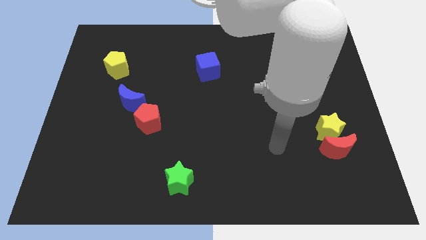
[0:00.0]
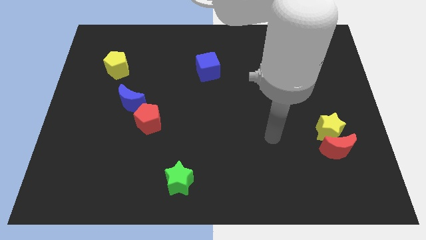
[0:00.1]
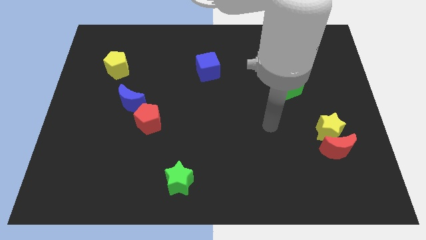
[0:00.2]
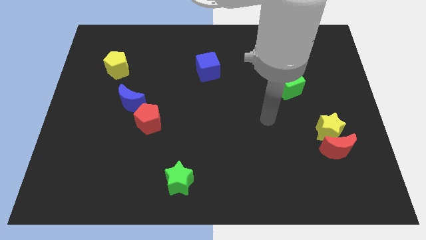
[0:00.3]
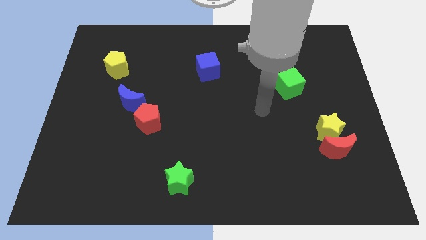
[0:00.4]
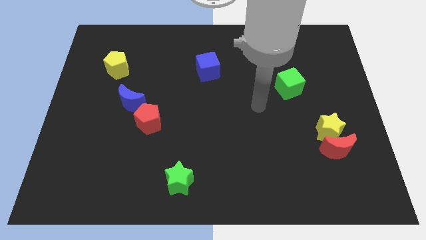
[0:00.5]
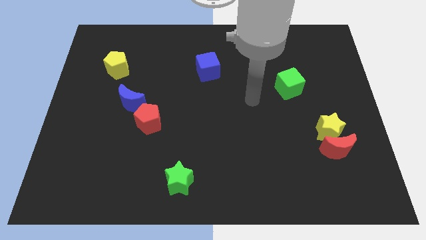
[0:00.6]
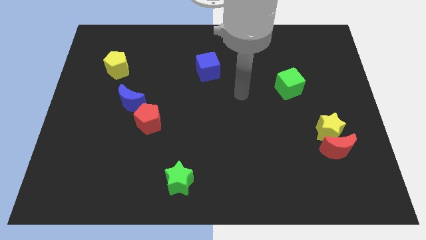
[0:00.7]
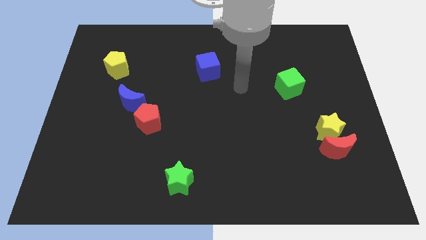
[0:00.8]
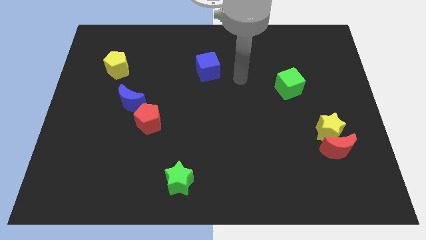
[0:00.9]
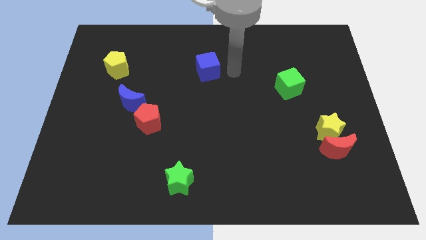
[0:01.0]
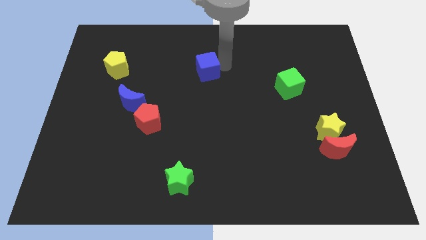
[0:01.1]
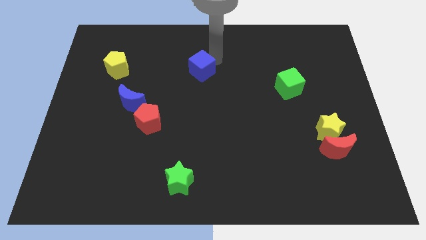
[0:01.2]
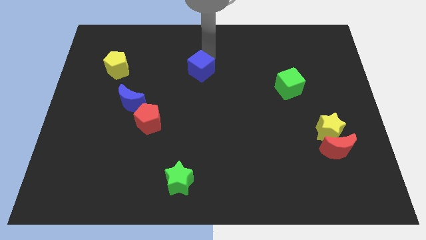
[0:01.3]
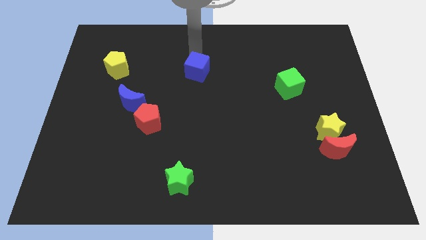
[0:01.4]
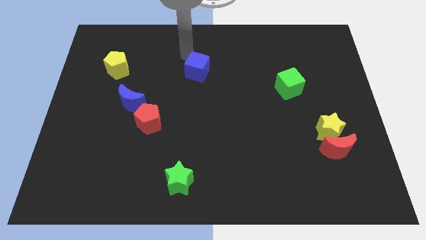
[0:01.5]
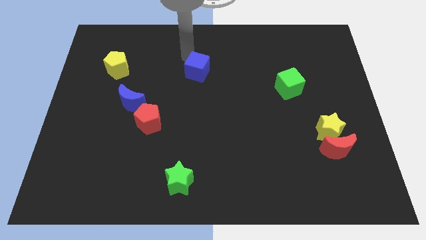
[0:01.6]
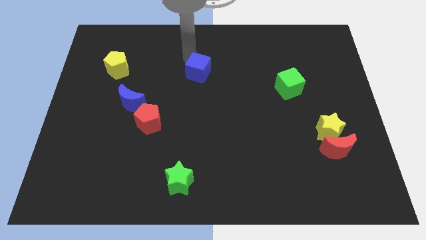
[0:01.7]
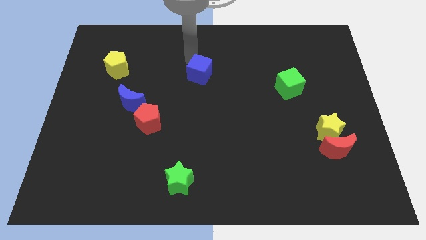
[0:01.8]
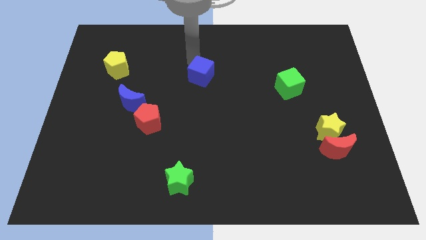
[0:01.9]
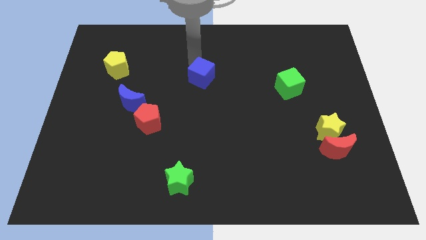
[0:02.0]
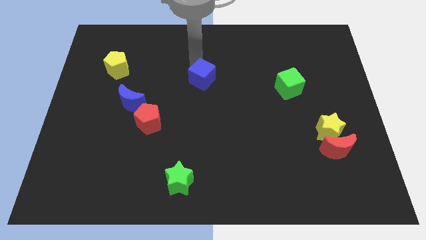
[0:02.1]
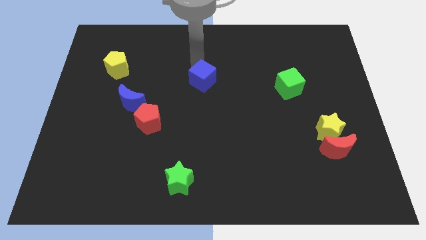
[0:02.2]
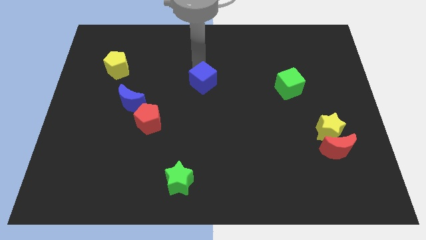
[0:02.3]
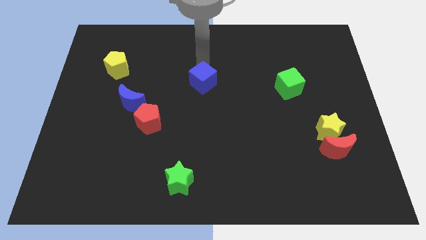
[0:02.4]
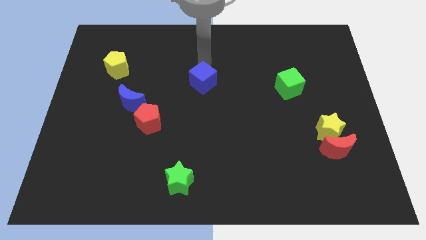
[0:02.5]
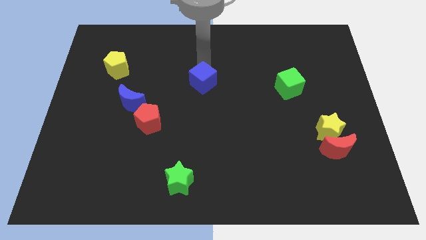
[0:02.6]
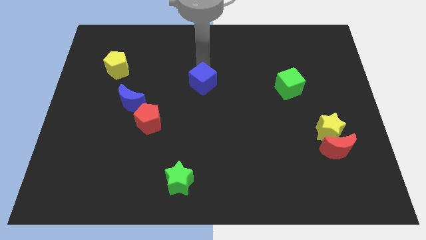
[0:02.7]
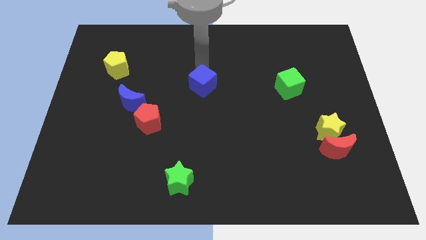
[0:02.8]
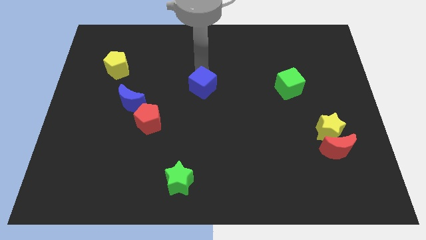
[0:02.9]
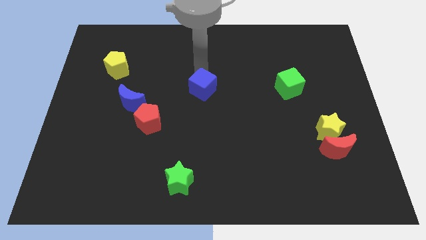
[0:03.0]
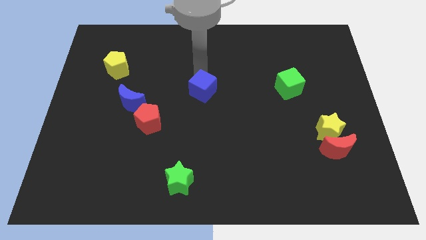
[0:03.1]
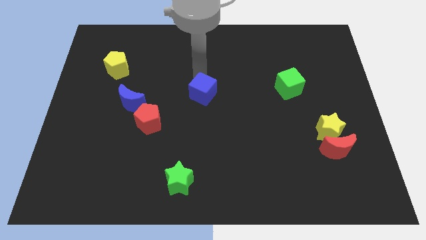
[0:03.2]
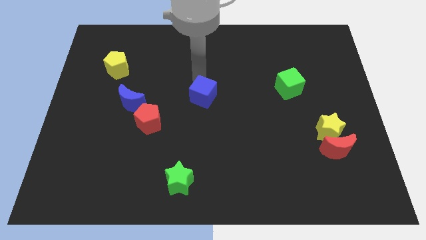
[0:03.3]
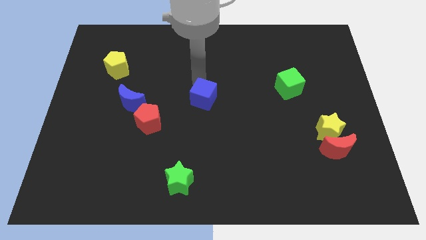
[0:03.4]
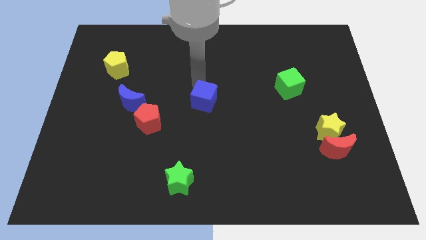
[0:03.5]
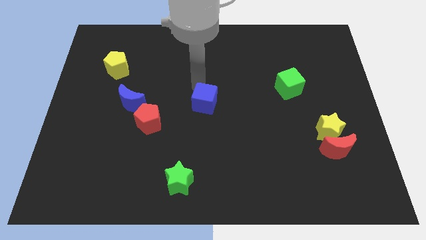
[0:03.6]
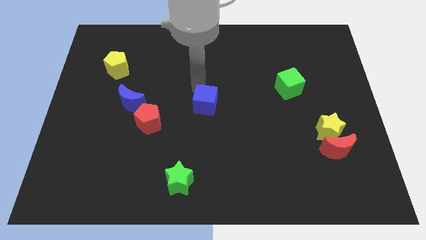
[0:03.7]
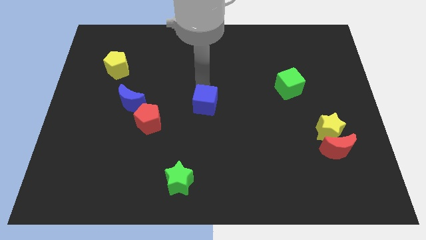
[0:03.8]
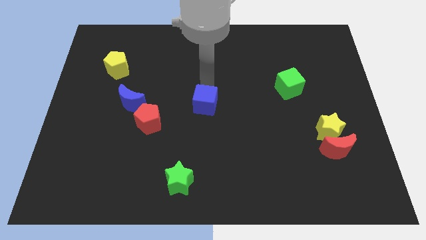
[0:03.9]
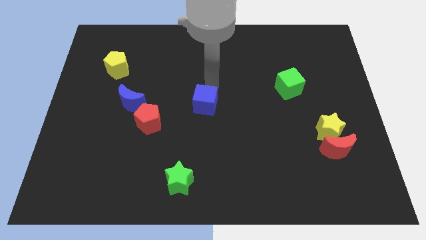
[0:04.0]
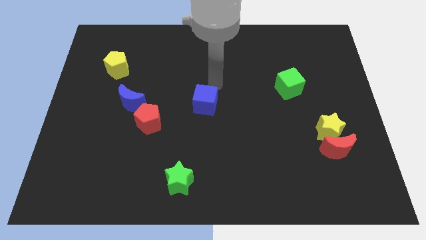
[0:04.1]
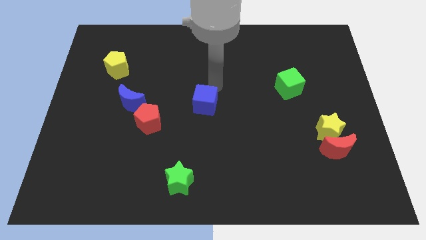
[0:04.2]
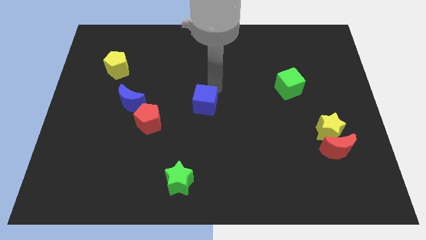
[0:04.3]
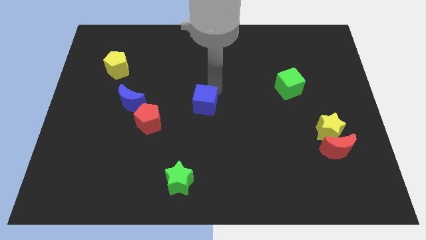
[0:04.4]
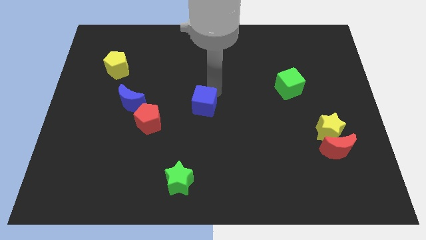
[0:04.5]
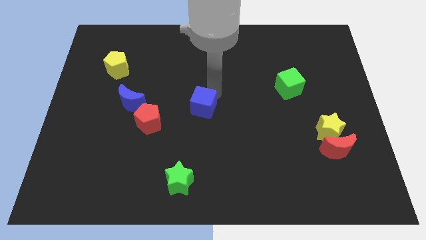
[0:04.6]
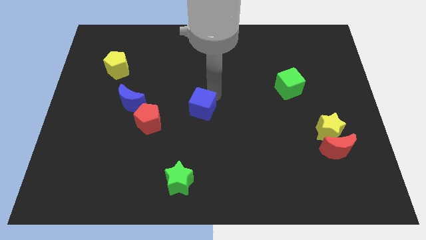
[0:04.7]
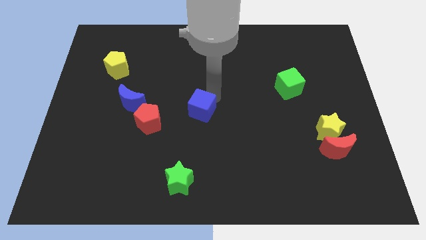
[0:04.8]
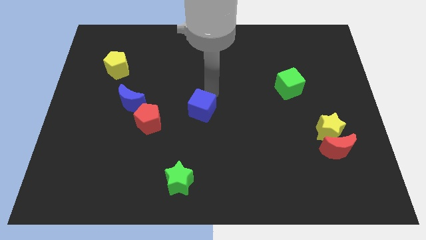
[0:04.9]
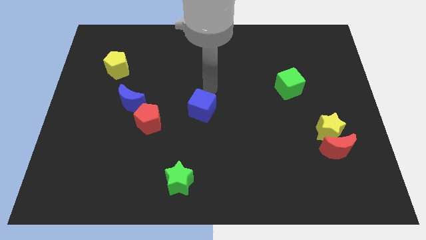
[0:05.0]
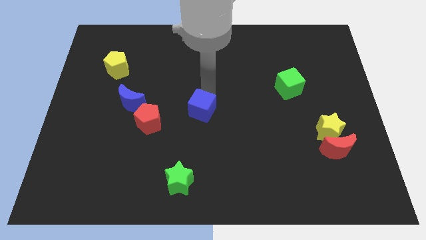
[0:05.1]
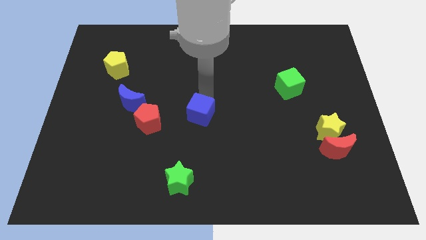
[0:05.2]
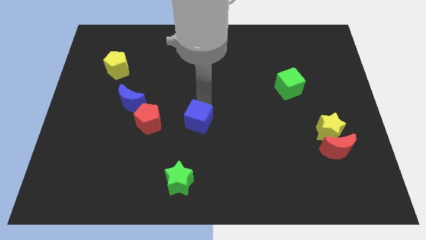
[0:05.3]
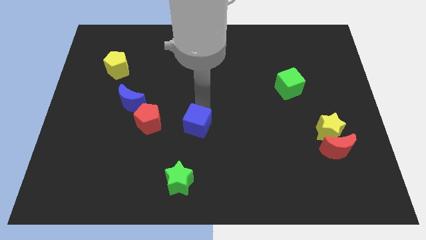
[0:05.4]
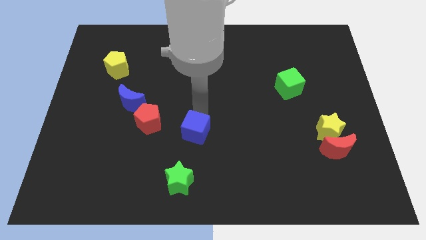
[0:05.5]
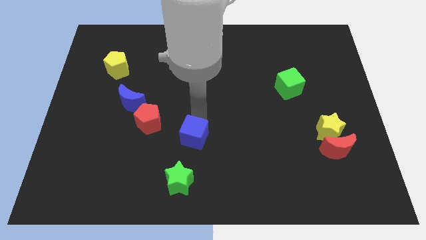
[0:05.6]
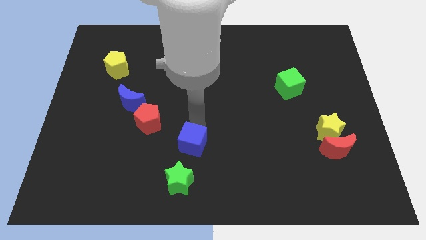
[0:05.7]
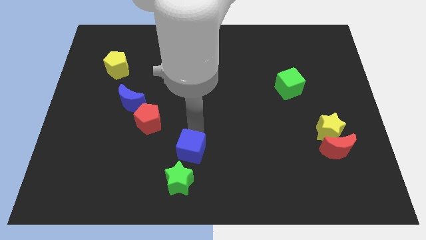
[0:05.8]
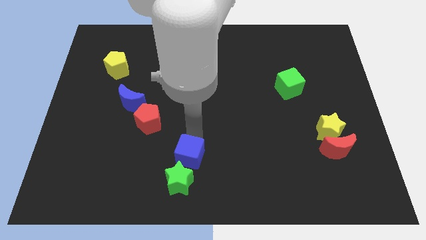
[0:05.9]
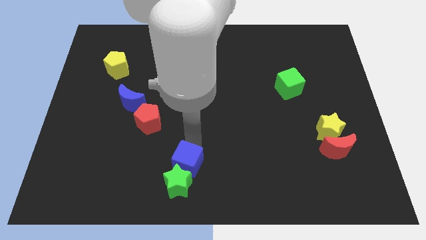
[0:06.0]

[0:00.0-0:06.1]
push the blue cube next to the green star

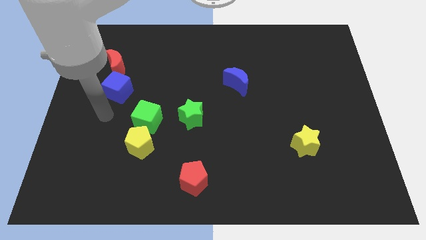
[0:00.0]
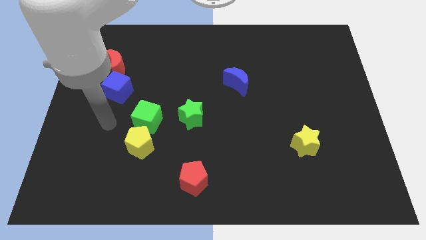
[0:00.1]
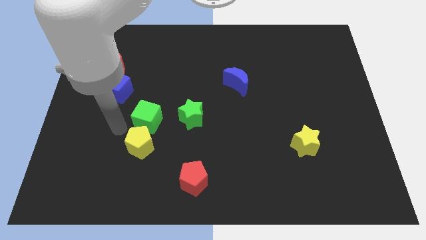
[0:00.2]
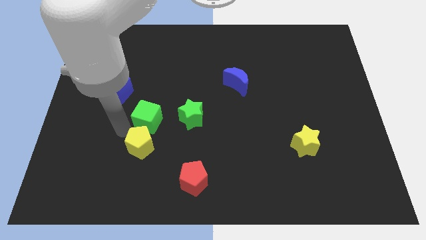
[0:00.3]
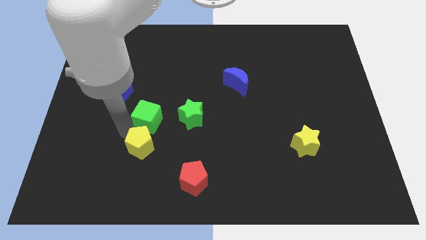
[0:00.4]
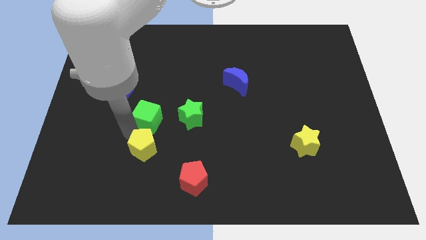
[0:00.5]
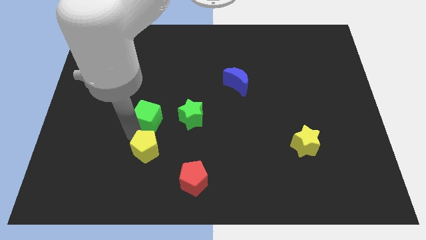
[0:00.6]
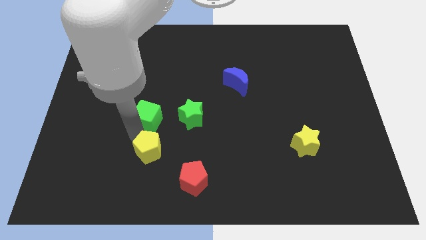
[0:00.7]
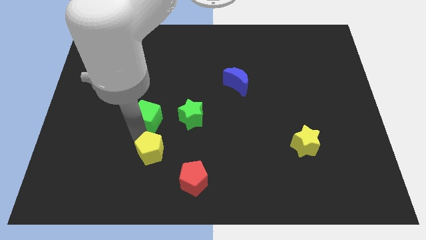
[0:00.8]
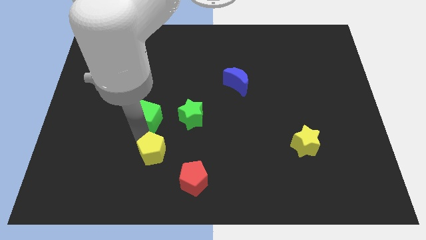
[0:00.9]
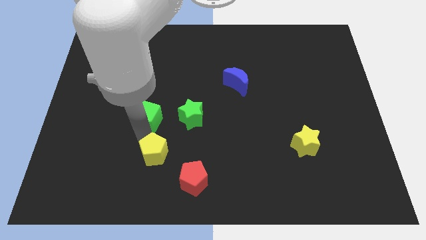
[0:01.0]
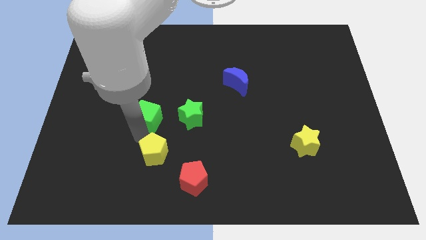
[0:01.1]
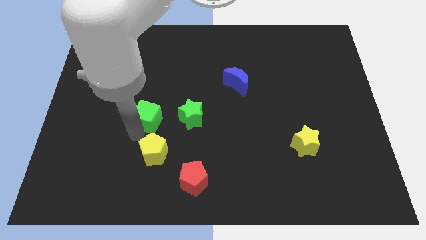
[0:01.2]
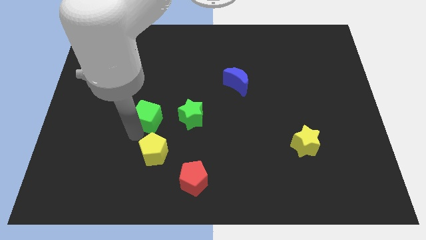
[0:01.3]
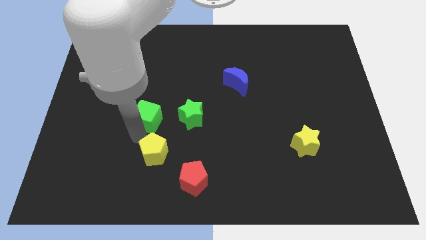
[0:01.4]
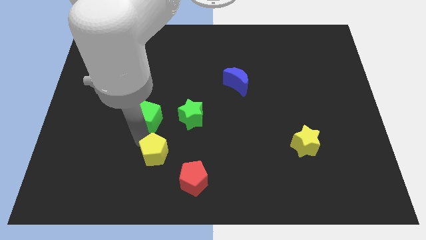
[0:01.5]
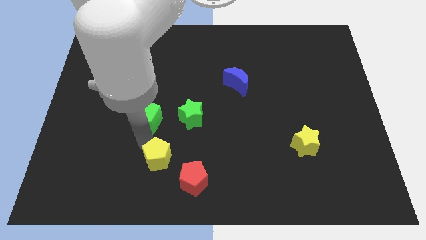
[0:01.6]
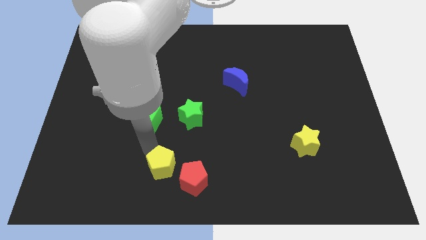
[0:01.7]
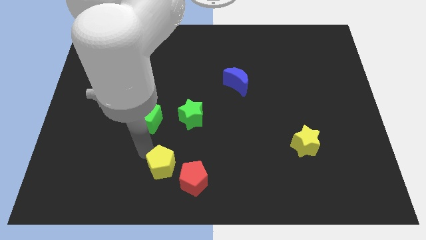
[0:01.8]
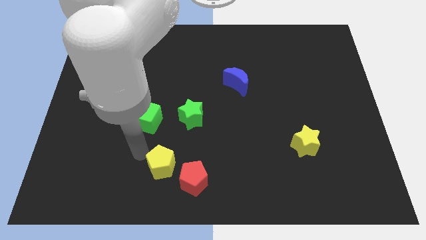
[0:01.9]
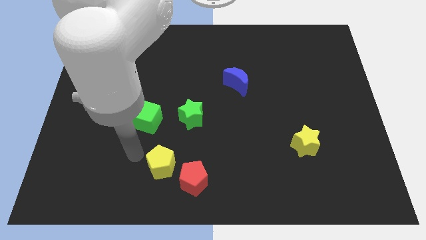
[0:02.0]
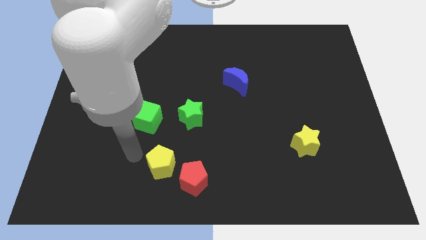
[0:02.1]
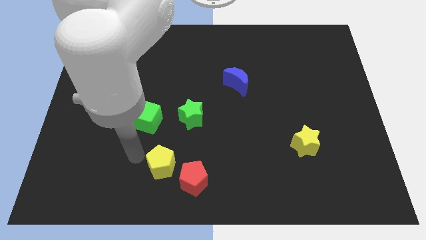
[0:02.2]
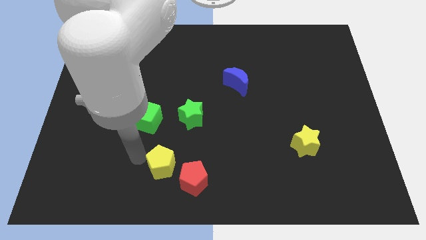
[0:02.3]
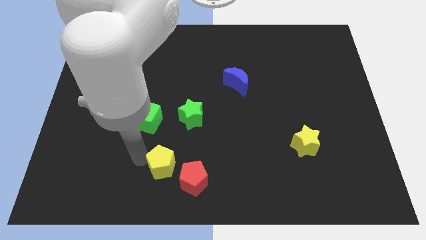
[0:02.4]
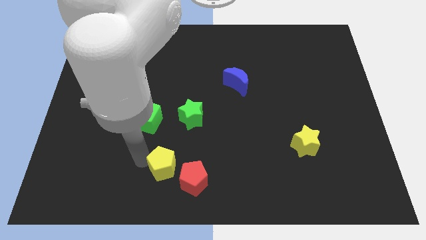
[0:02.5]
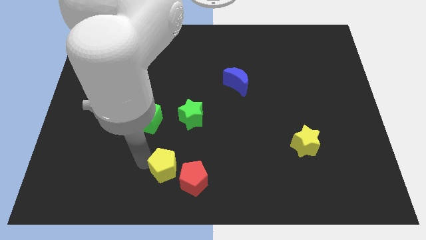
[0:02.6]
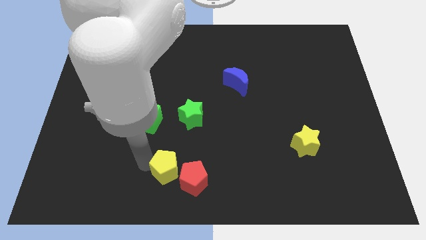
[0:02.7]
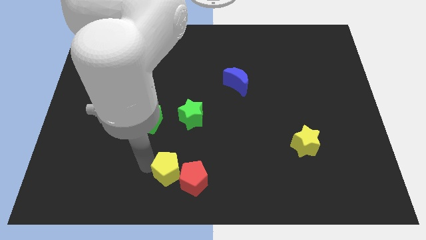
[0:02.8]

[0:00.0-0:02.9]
push the yellow pentagon to the red pentagon
